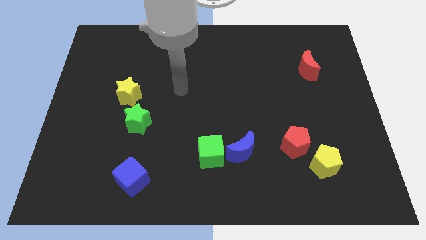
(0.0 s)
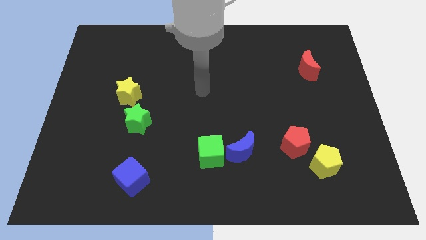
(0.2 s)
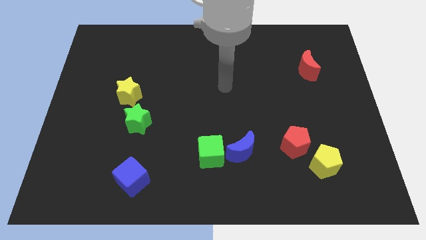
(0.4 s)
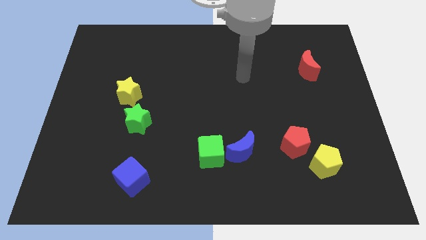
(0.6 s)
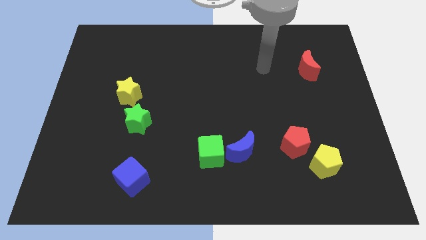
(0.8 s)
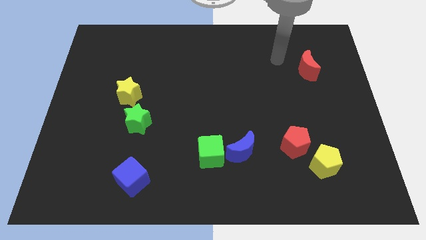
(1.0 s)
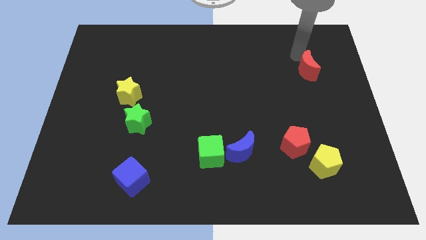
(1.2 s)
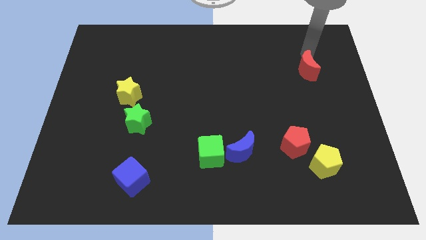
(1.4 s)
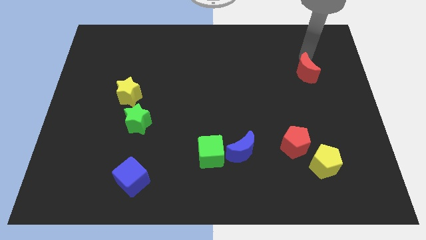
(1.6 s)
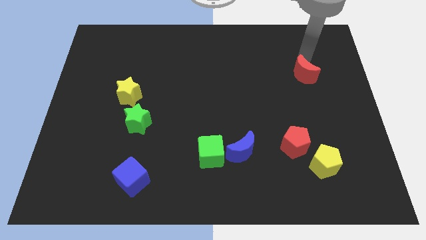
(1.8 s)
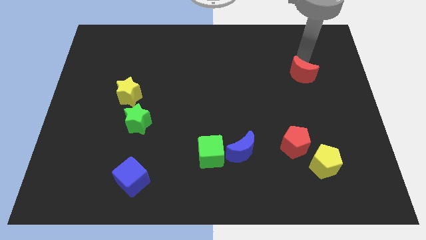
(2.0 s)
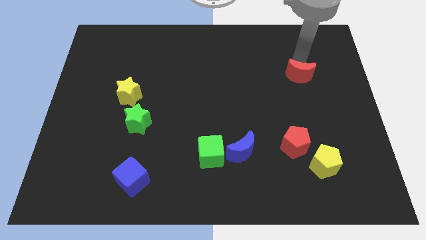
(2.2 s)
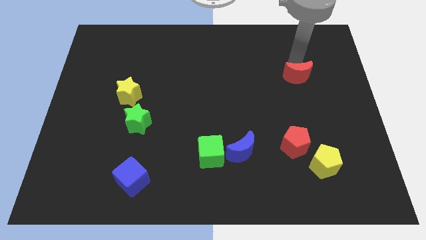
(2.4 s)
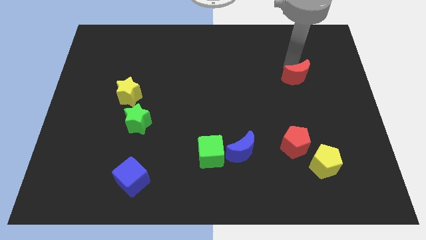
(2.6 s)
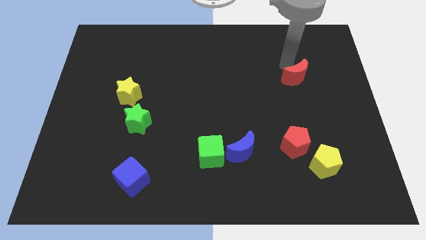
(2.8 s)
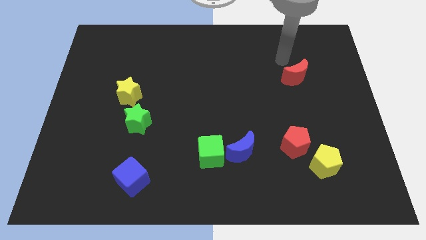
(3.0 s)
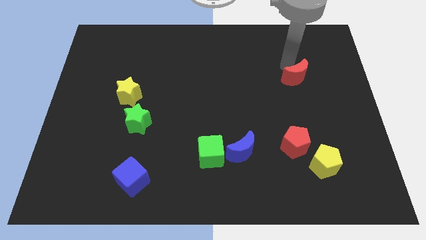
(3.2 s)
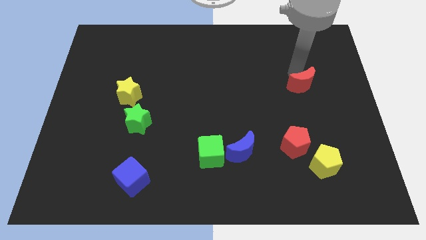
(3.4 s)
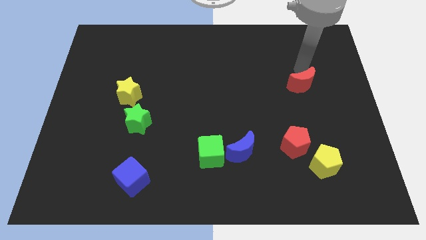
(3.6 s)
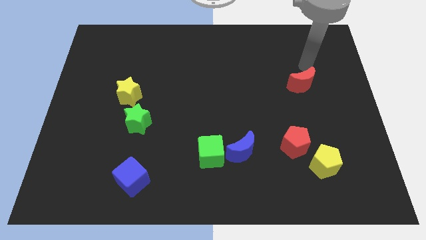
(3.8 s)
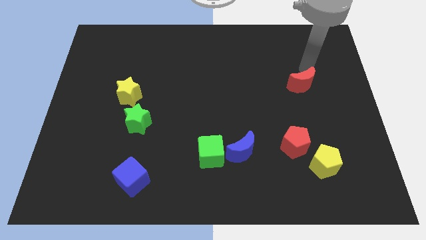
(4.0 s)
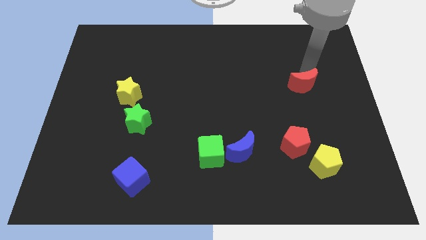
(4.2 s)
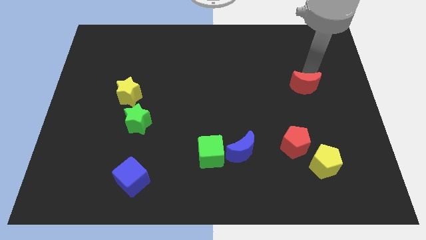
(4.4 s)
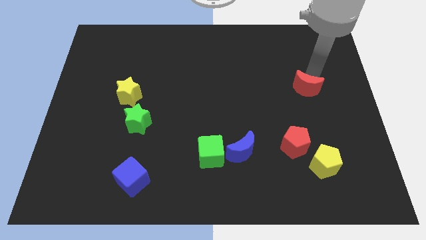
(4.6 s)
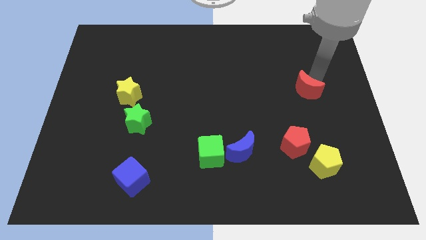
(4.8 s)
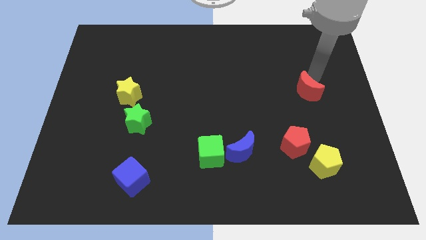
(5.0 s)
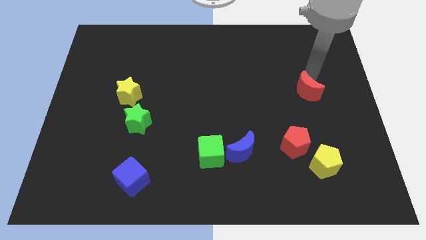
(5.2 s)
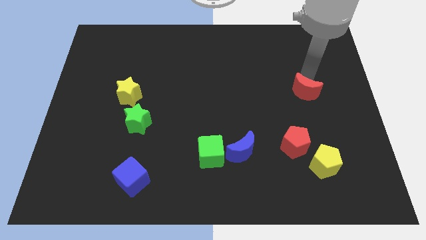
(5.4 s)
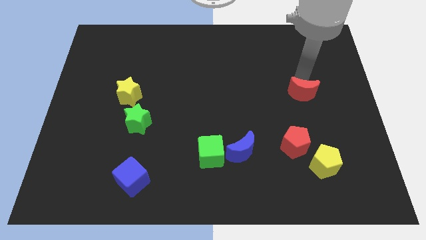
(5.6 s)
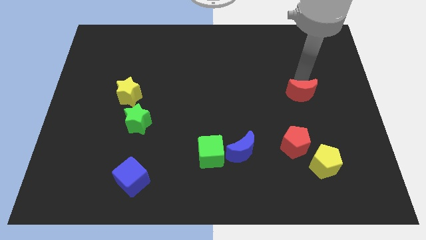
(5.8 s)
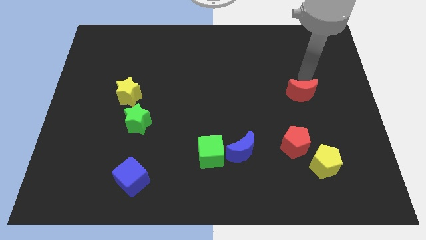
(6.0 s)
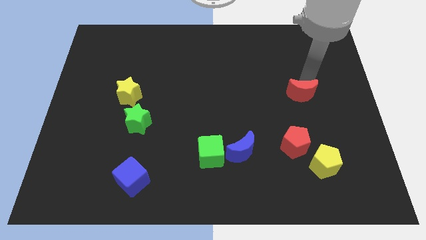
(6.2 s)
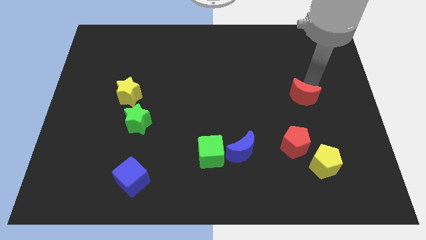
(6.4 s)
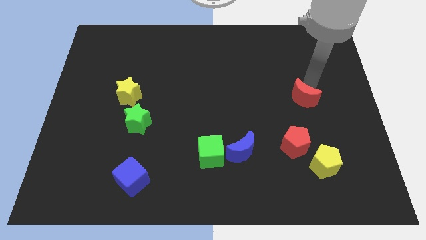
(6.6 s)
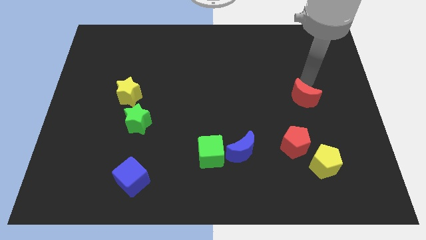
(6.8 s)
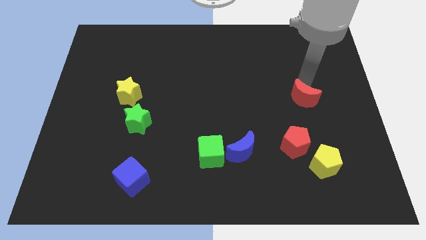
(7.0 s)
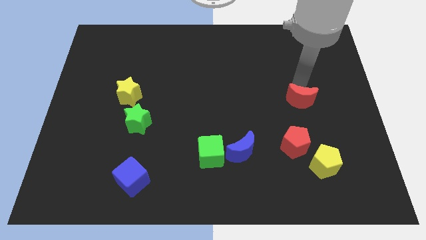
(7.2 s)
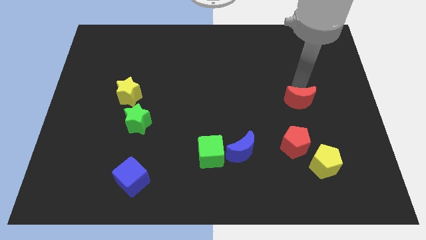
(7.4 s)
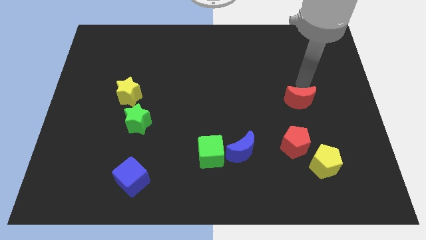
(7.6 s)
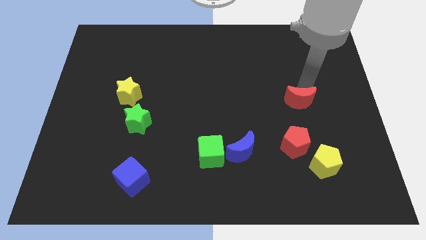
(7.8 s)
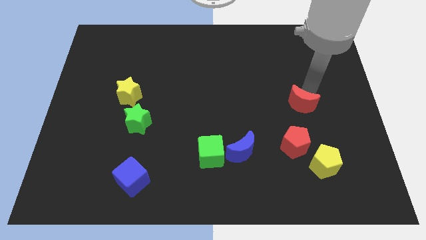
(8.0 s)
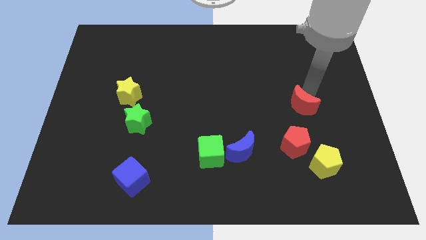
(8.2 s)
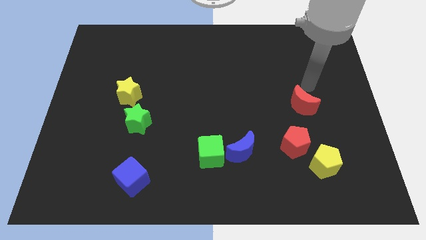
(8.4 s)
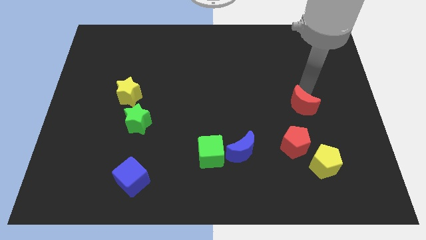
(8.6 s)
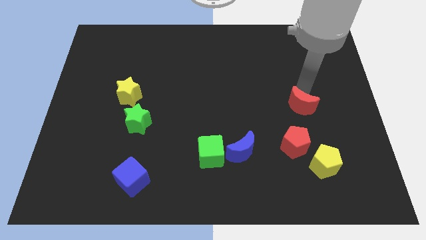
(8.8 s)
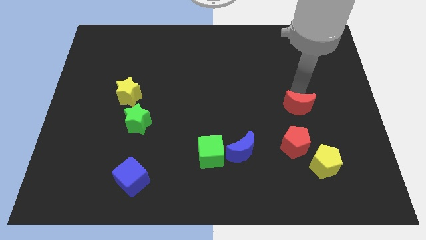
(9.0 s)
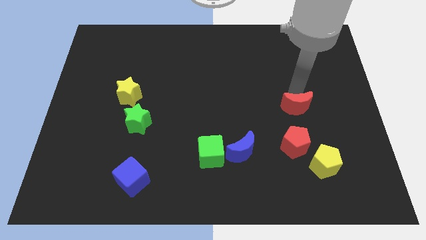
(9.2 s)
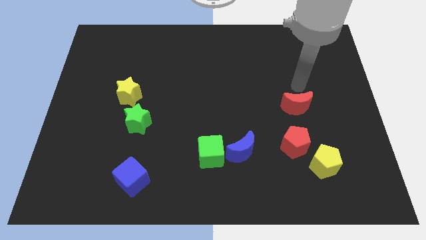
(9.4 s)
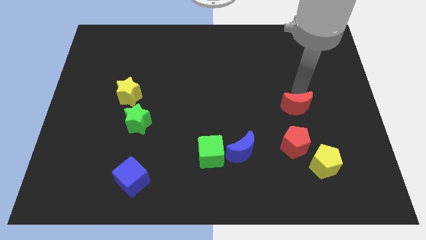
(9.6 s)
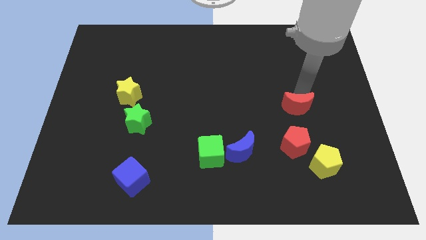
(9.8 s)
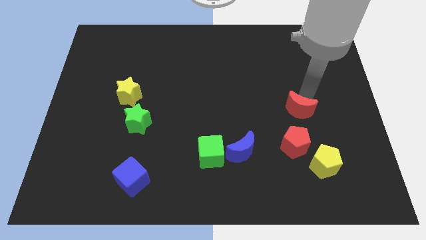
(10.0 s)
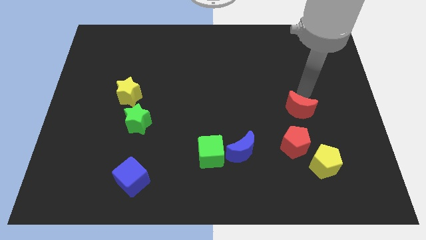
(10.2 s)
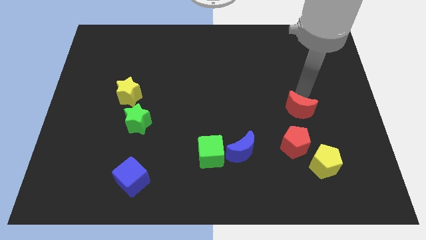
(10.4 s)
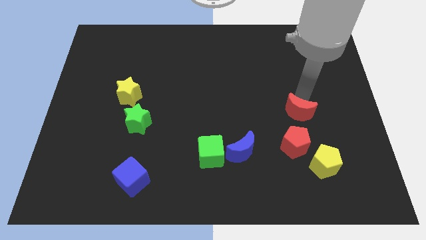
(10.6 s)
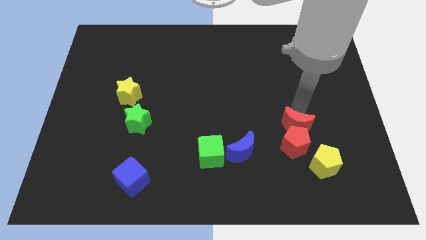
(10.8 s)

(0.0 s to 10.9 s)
slide the red moon close to the red pentagon

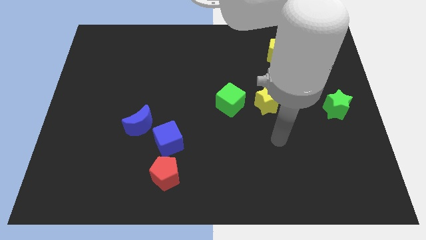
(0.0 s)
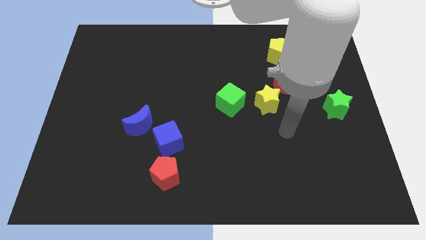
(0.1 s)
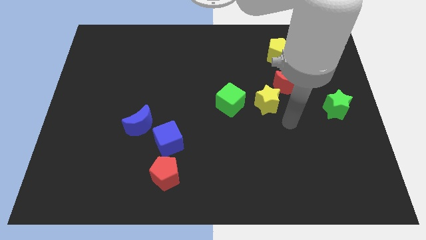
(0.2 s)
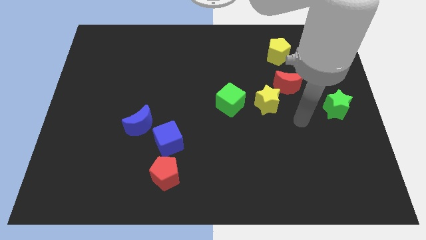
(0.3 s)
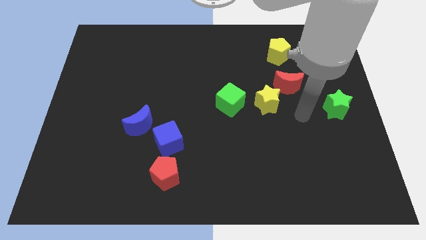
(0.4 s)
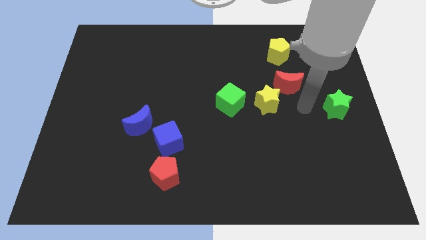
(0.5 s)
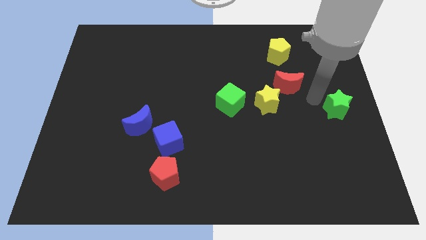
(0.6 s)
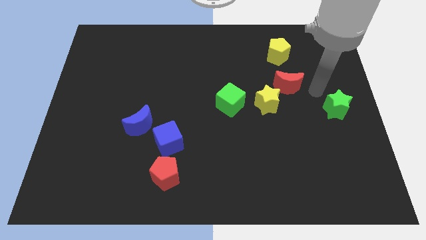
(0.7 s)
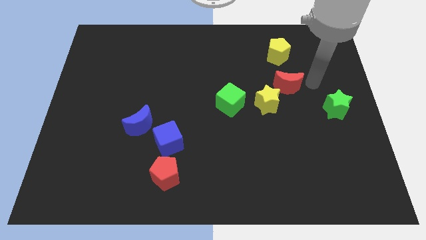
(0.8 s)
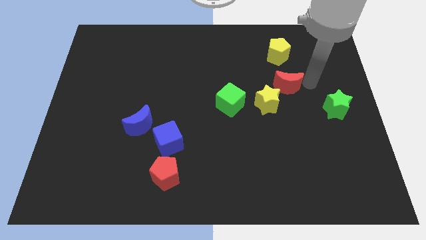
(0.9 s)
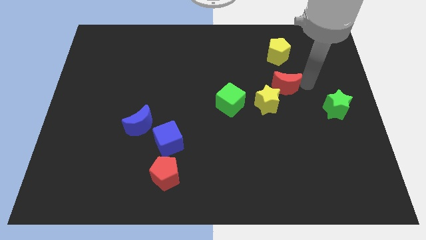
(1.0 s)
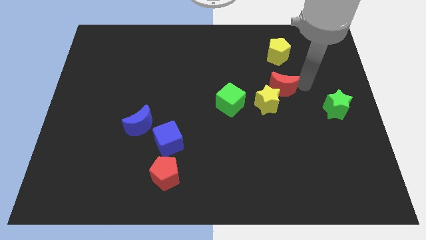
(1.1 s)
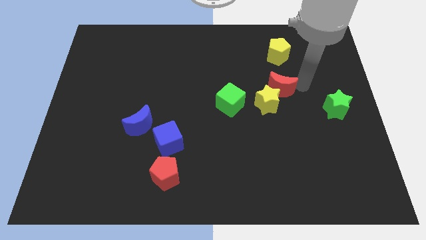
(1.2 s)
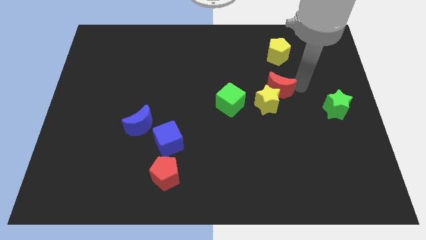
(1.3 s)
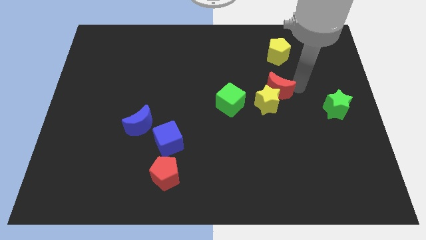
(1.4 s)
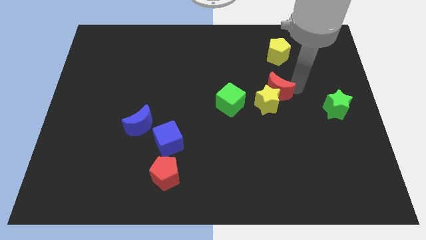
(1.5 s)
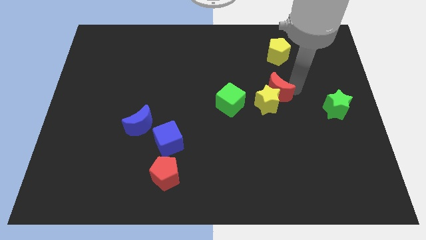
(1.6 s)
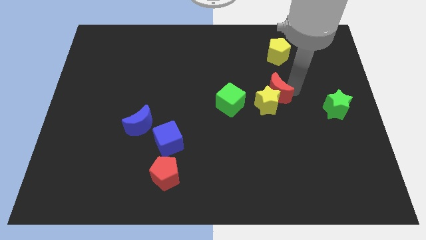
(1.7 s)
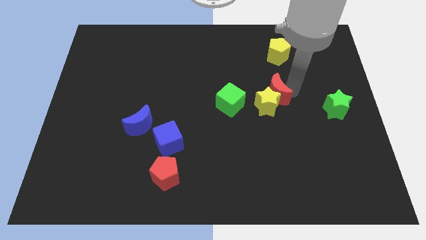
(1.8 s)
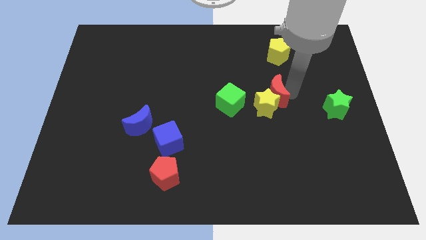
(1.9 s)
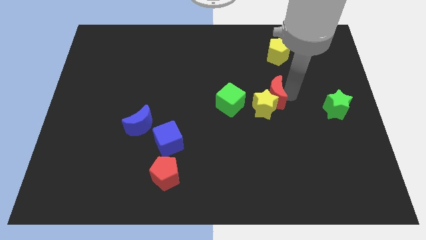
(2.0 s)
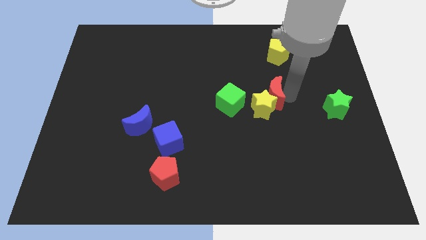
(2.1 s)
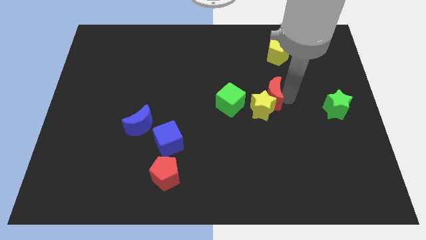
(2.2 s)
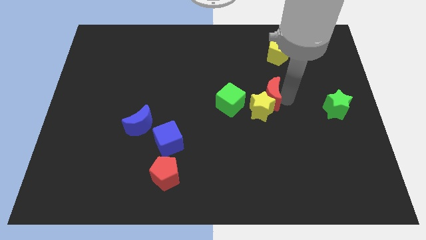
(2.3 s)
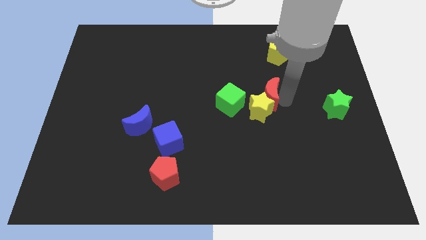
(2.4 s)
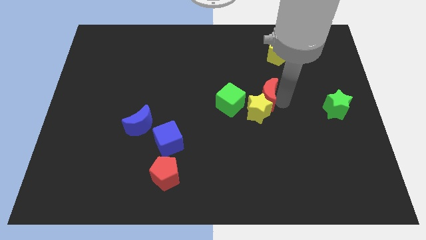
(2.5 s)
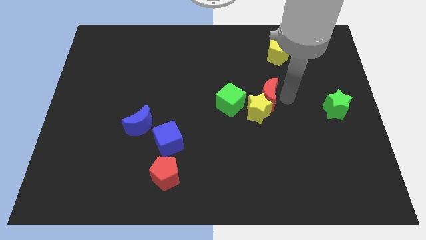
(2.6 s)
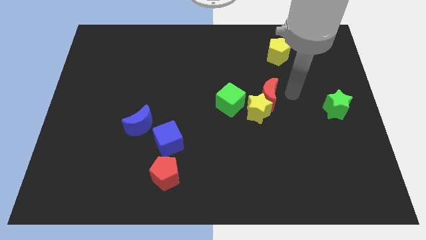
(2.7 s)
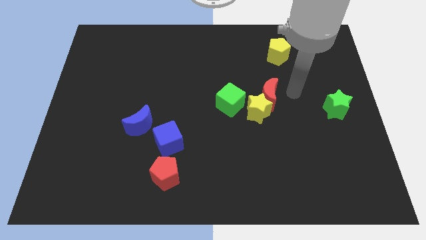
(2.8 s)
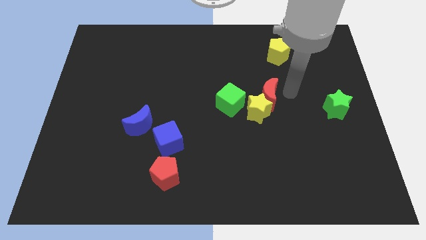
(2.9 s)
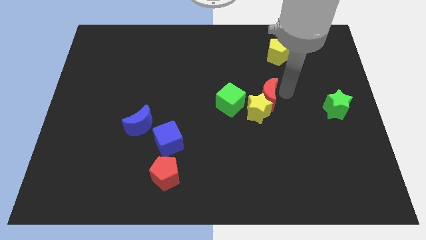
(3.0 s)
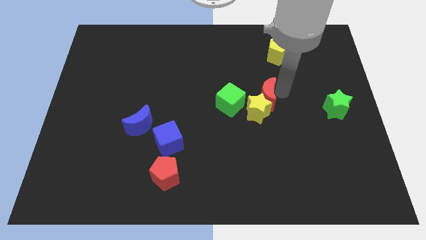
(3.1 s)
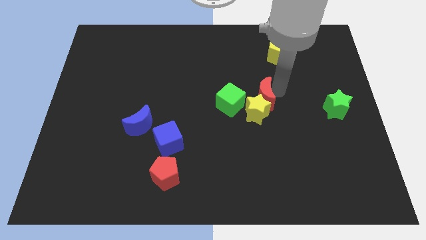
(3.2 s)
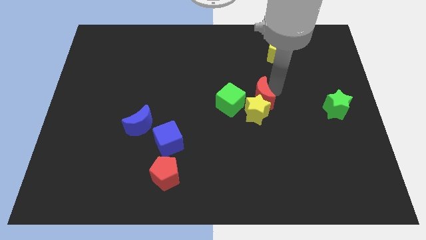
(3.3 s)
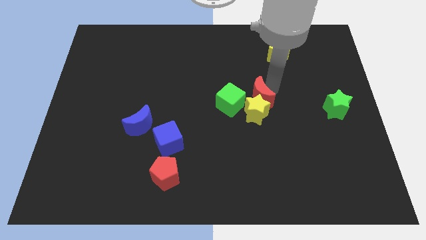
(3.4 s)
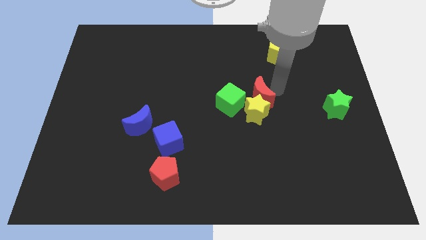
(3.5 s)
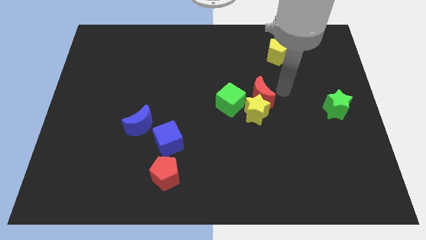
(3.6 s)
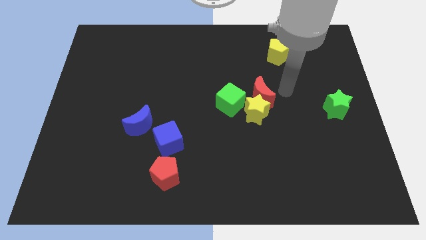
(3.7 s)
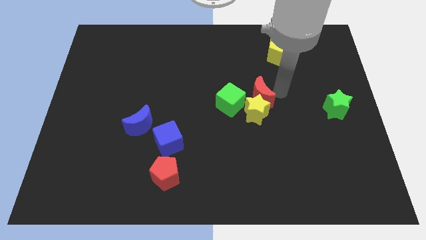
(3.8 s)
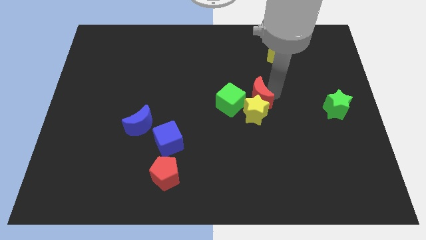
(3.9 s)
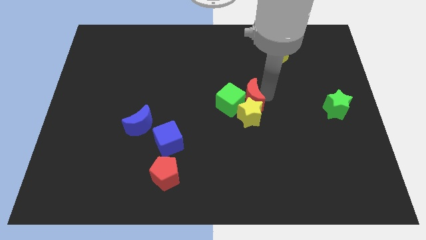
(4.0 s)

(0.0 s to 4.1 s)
push the red moon close to the green cube
